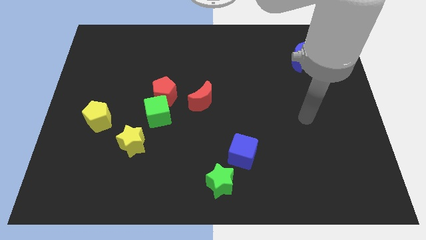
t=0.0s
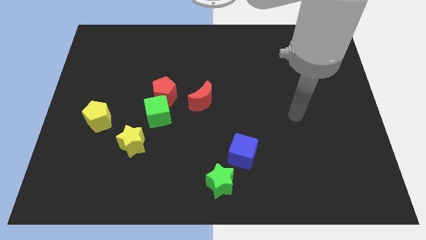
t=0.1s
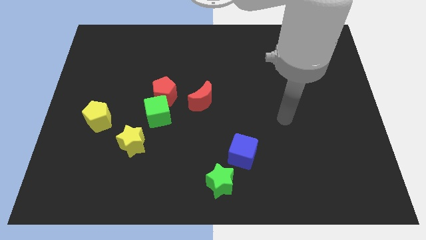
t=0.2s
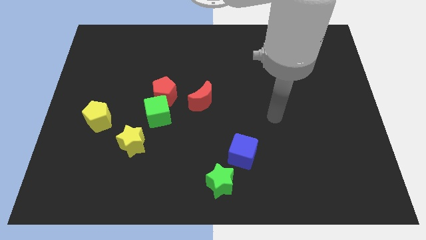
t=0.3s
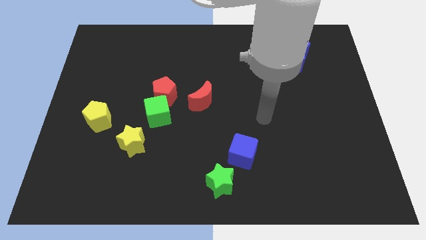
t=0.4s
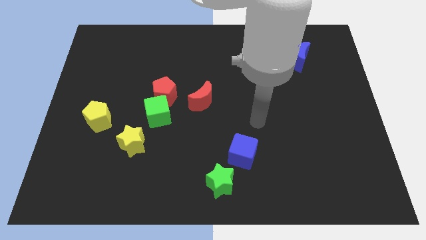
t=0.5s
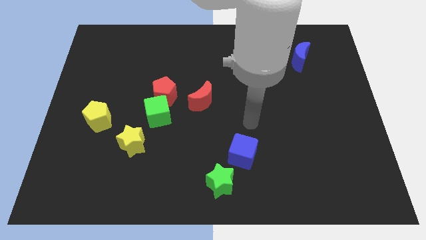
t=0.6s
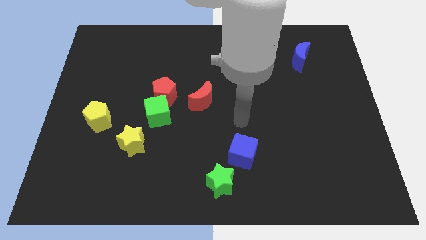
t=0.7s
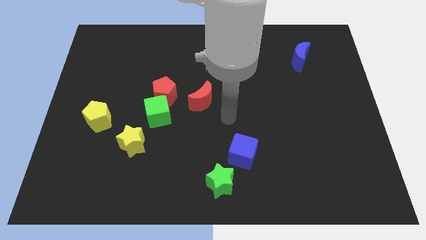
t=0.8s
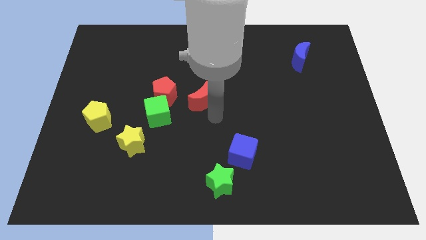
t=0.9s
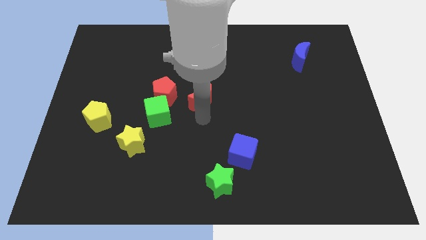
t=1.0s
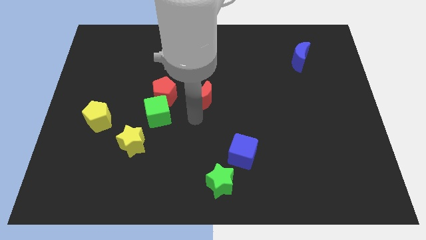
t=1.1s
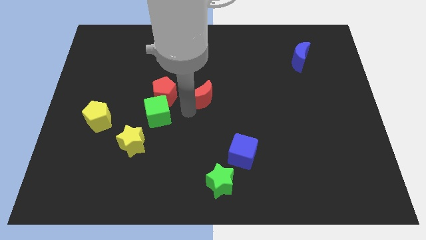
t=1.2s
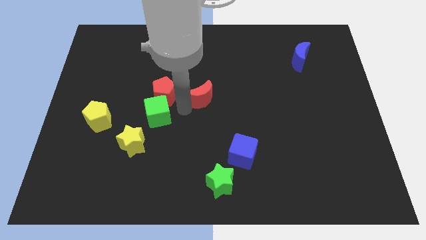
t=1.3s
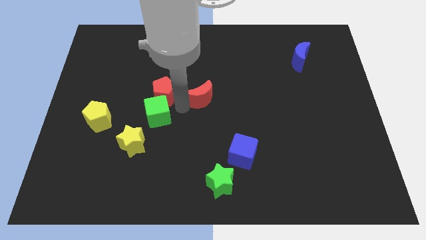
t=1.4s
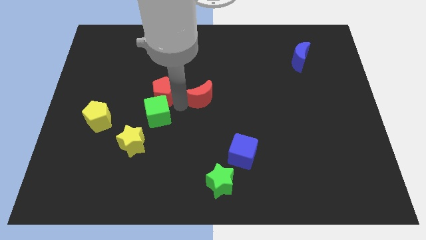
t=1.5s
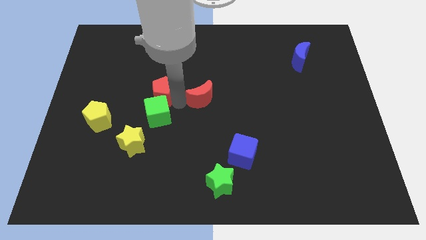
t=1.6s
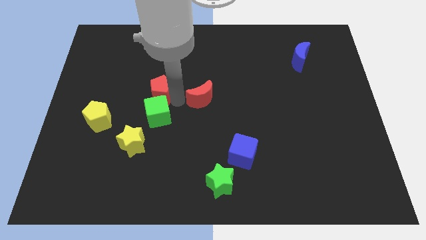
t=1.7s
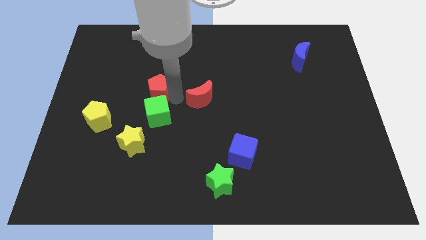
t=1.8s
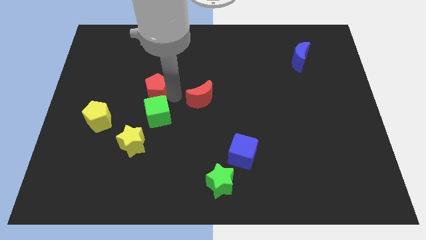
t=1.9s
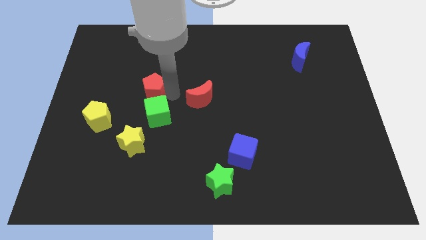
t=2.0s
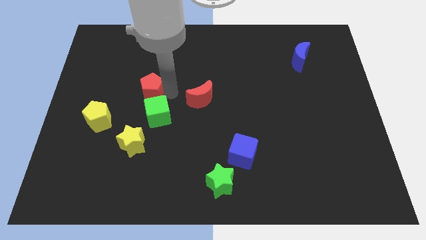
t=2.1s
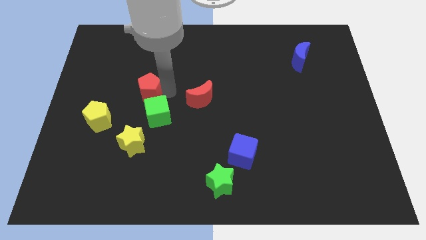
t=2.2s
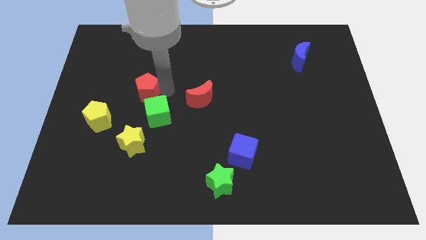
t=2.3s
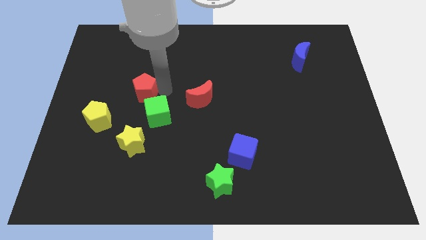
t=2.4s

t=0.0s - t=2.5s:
move the red pentagon away from the green cube and red moon

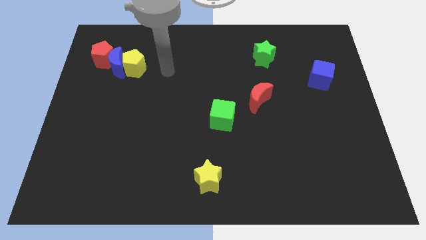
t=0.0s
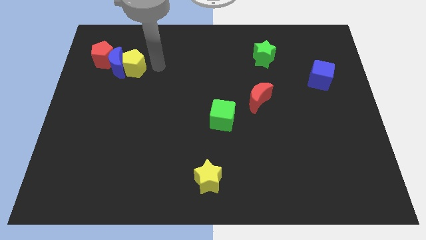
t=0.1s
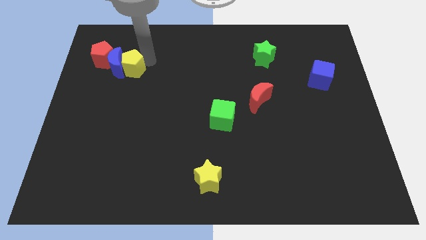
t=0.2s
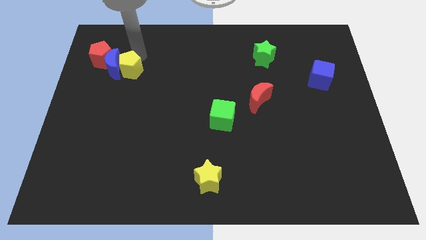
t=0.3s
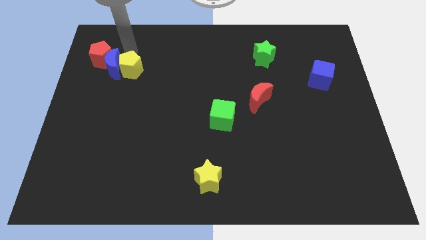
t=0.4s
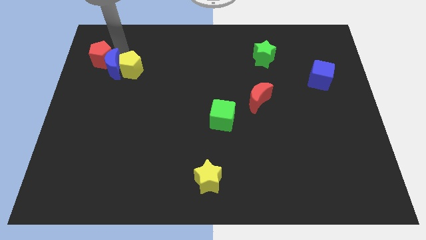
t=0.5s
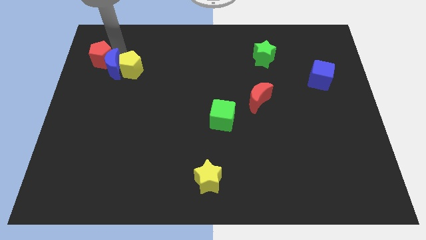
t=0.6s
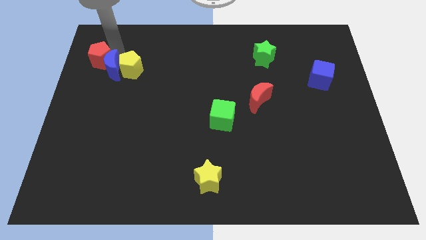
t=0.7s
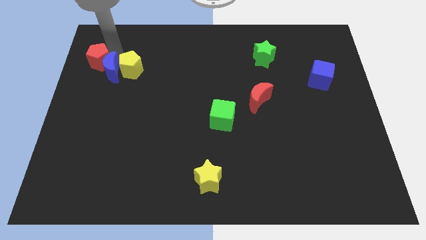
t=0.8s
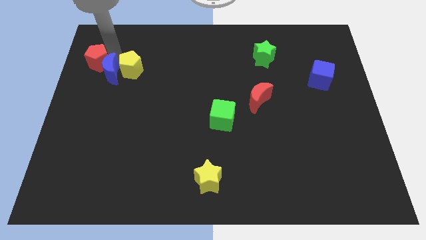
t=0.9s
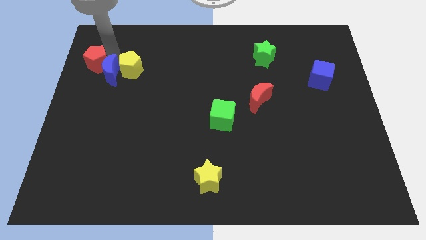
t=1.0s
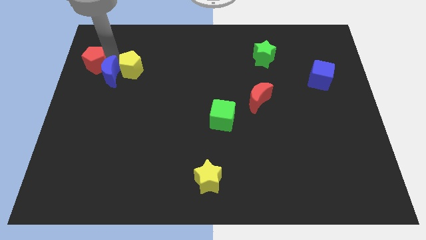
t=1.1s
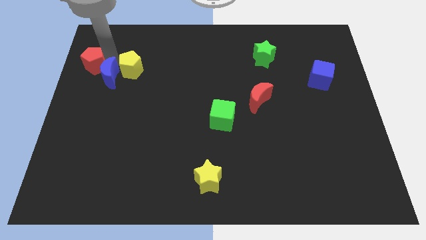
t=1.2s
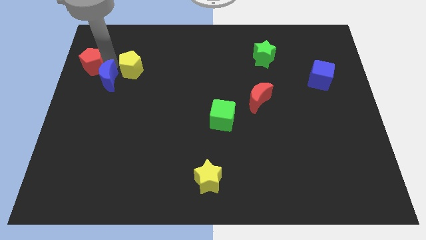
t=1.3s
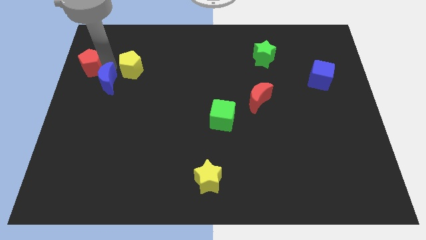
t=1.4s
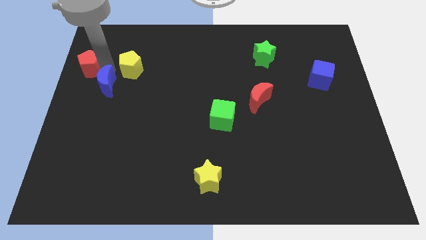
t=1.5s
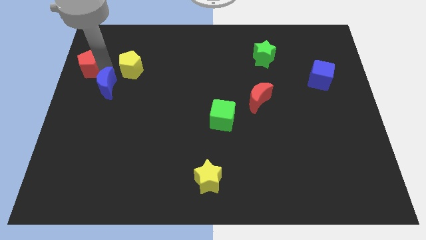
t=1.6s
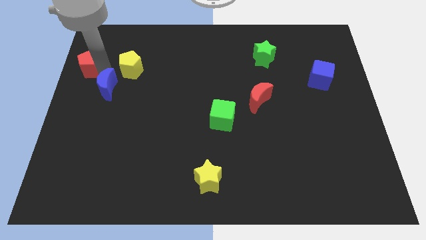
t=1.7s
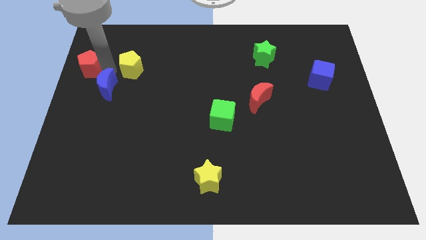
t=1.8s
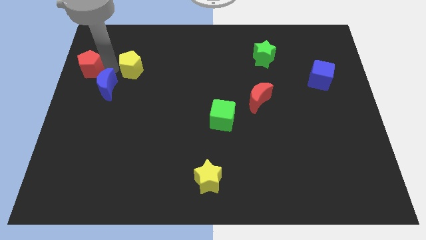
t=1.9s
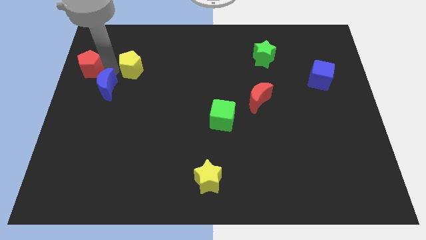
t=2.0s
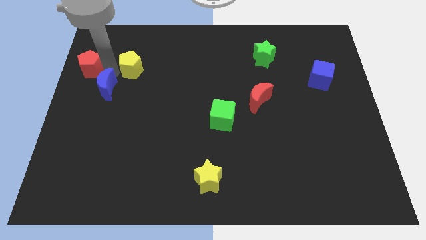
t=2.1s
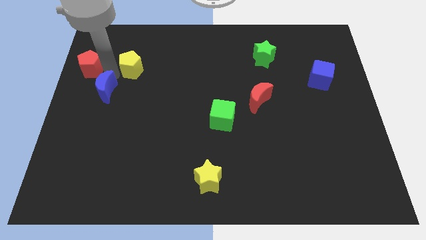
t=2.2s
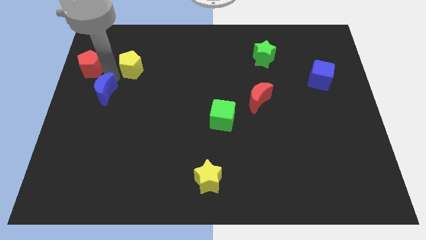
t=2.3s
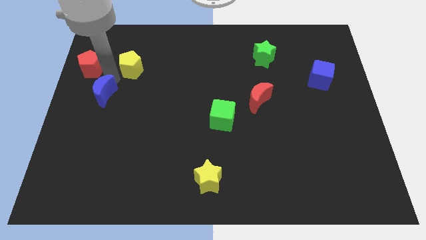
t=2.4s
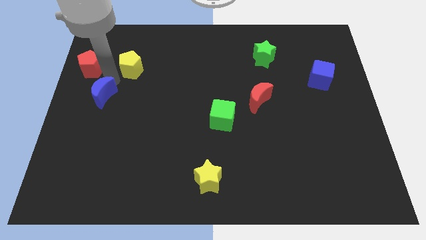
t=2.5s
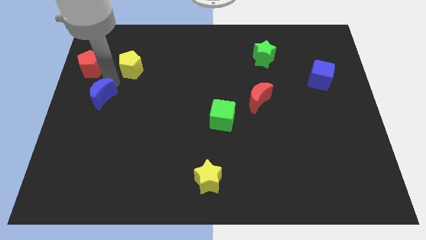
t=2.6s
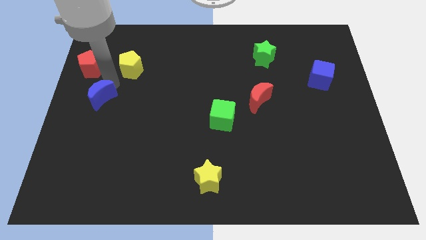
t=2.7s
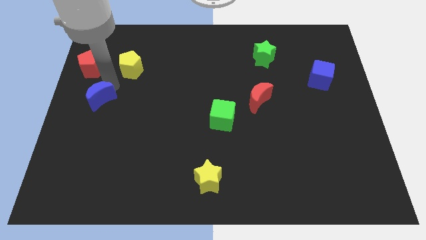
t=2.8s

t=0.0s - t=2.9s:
move the blue moon away from the yellow pentagon and red pentagon

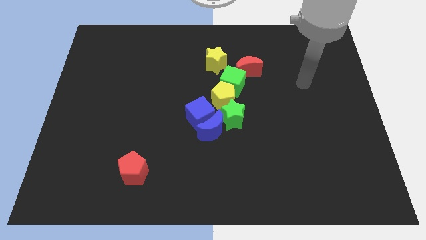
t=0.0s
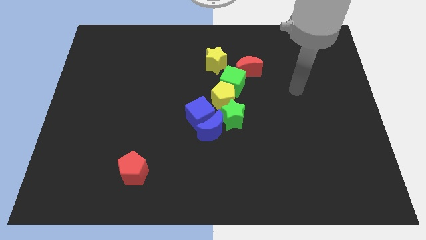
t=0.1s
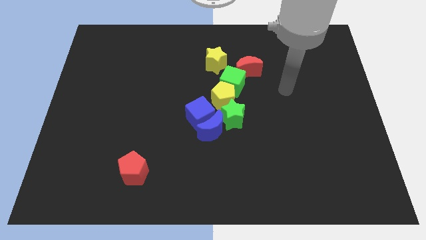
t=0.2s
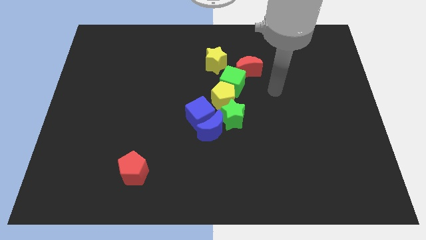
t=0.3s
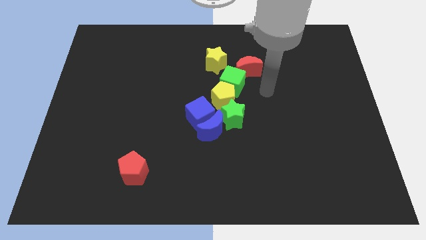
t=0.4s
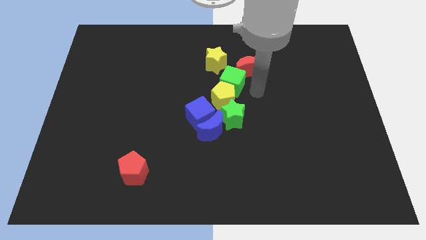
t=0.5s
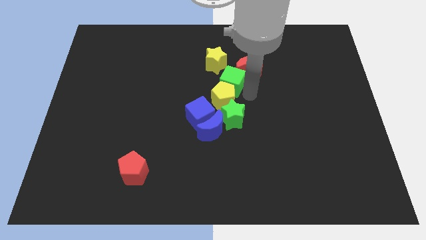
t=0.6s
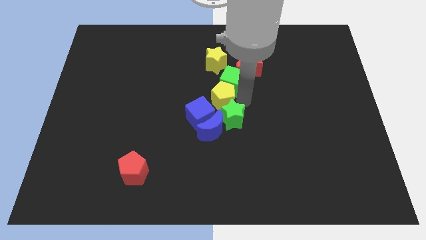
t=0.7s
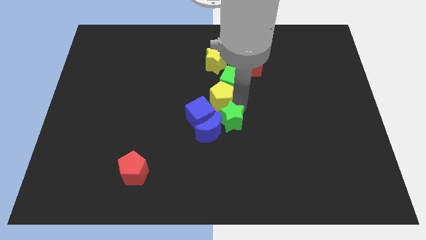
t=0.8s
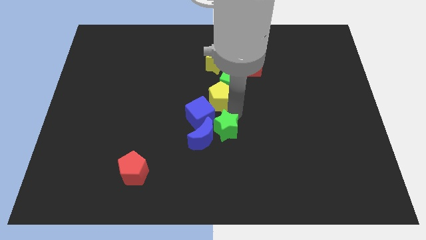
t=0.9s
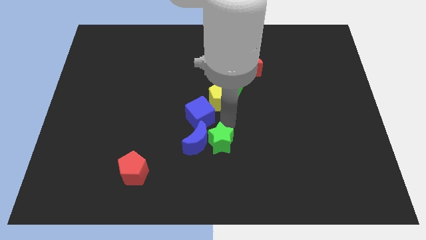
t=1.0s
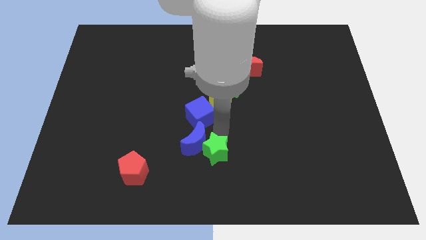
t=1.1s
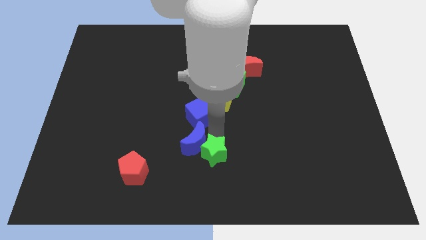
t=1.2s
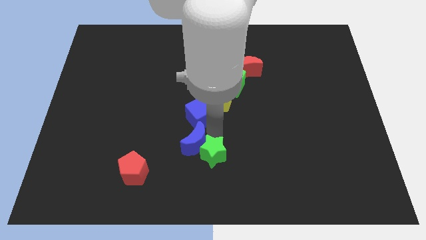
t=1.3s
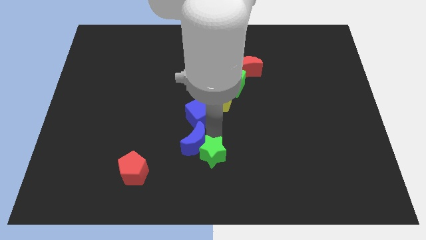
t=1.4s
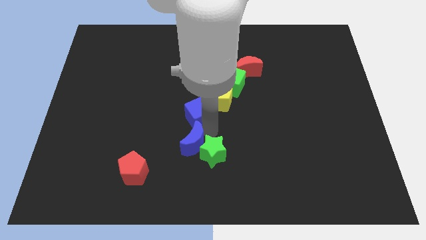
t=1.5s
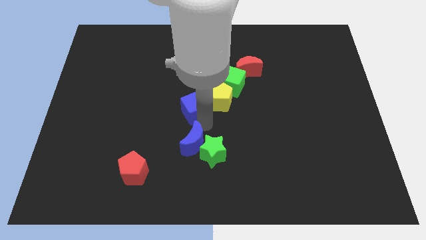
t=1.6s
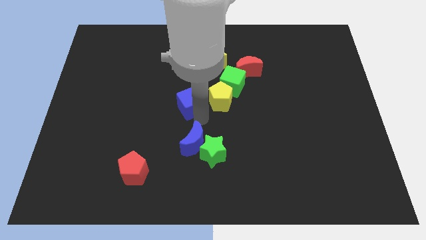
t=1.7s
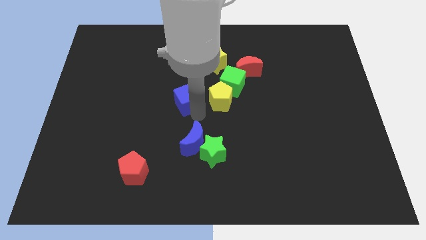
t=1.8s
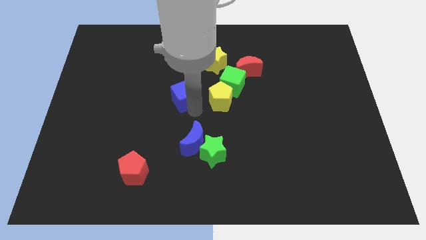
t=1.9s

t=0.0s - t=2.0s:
move the blue cube away from the blue moon, green star, and yellow pentagon

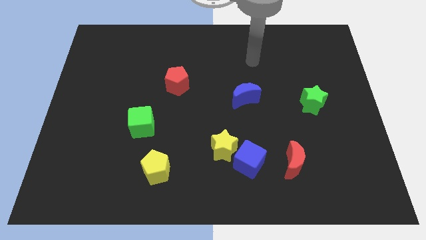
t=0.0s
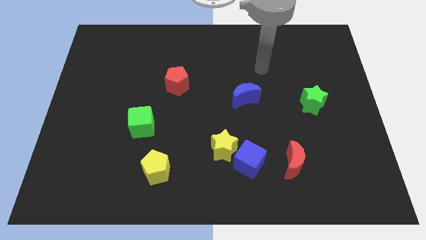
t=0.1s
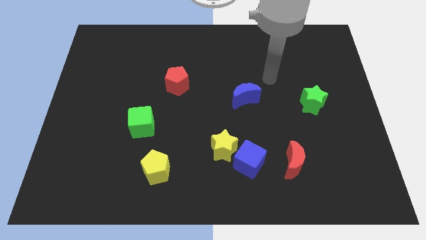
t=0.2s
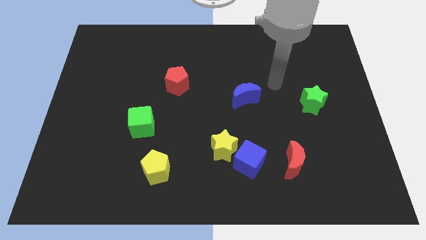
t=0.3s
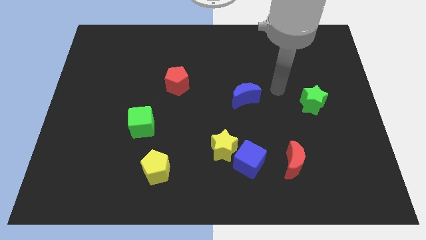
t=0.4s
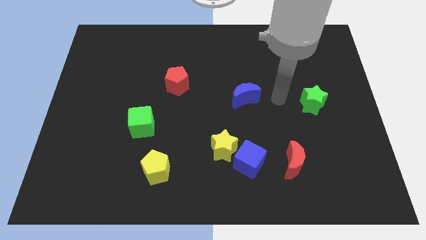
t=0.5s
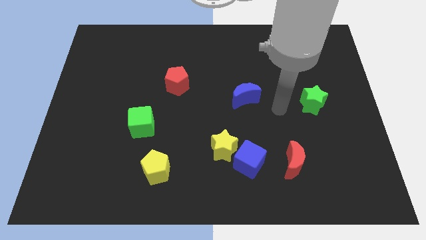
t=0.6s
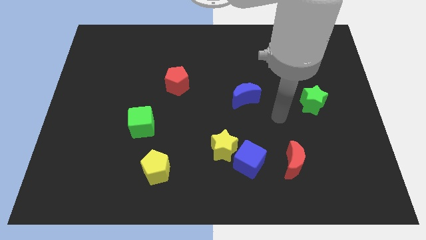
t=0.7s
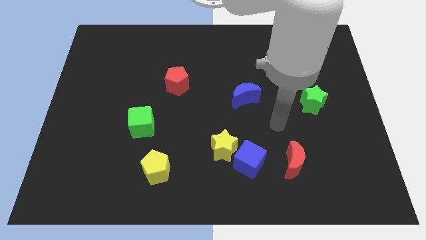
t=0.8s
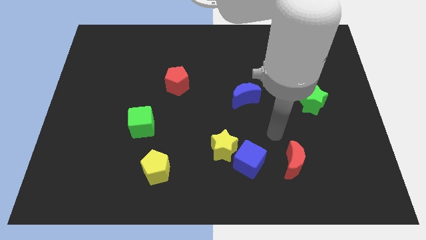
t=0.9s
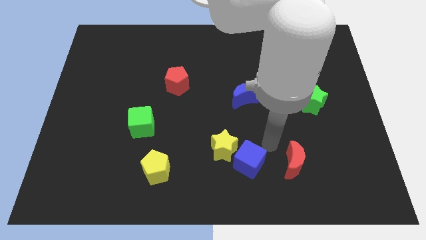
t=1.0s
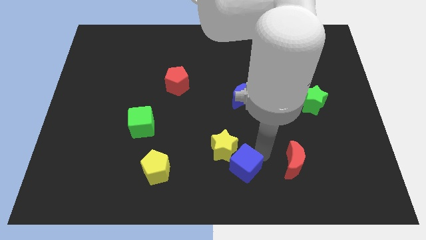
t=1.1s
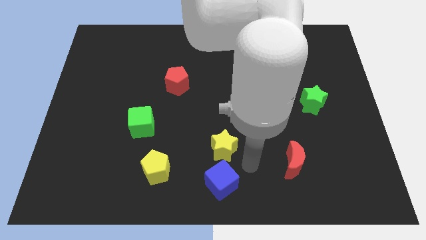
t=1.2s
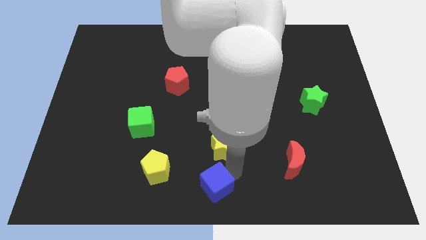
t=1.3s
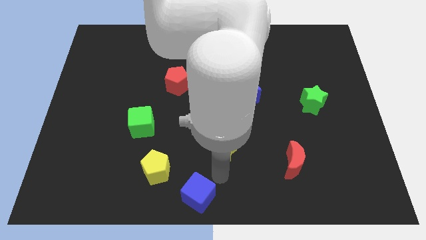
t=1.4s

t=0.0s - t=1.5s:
move the yellow star away from the blue cube

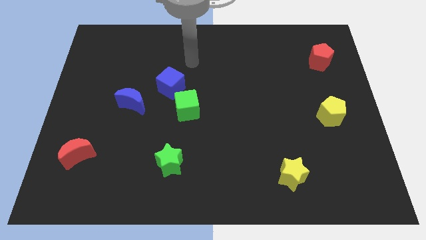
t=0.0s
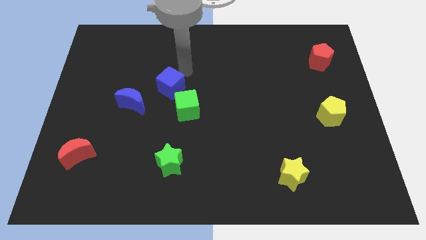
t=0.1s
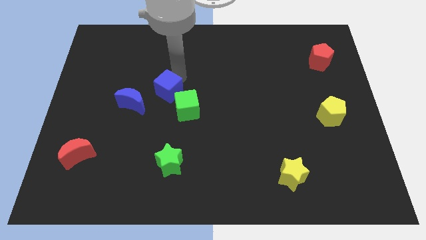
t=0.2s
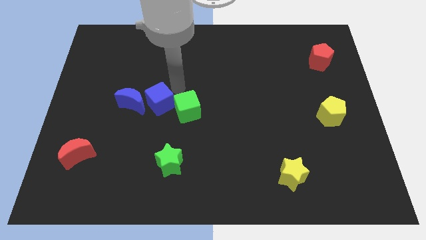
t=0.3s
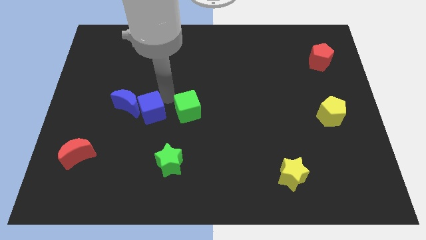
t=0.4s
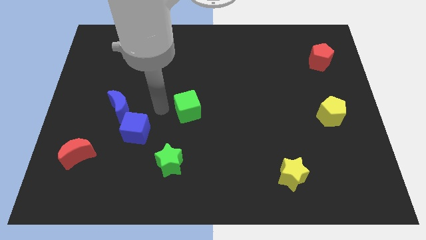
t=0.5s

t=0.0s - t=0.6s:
move the green cube away from the blue cube
